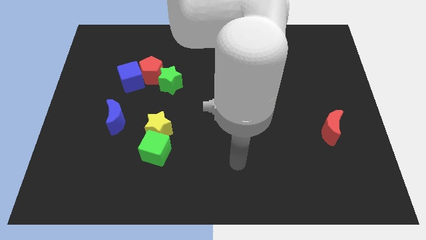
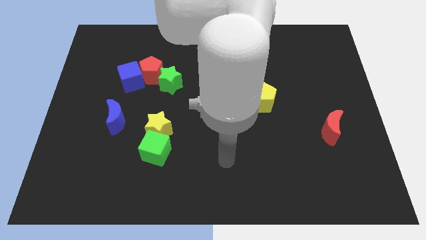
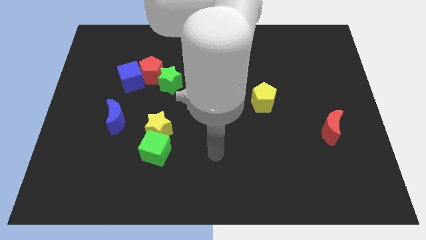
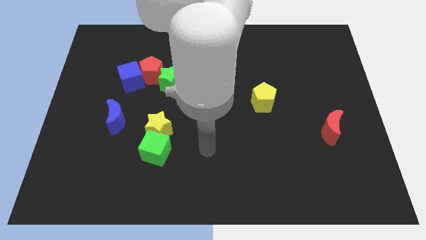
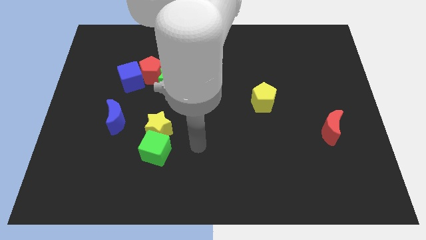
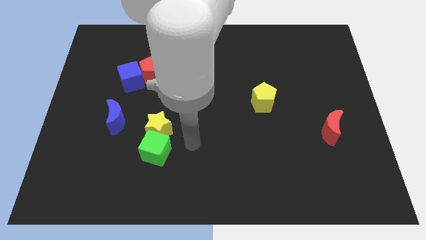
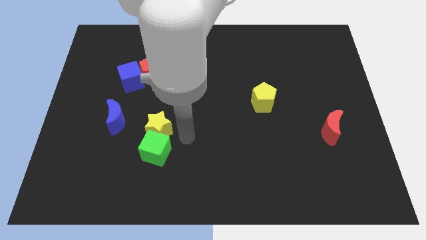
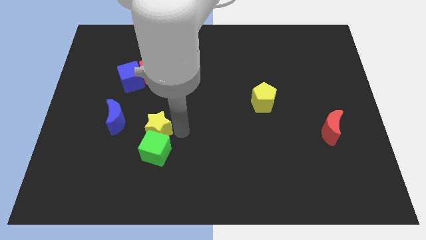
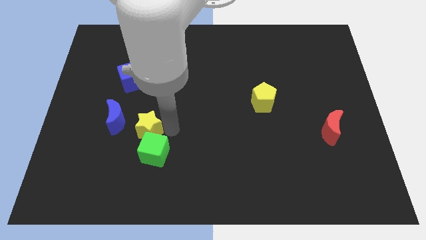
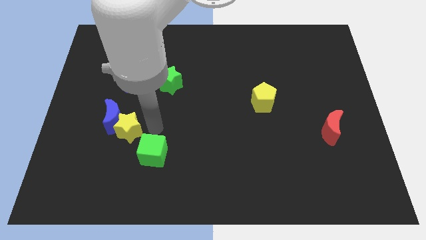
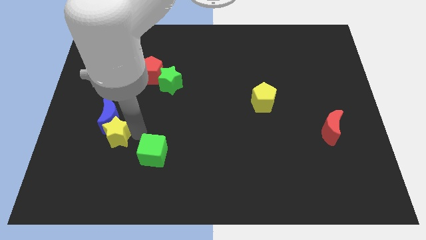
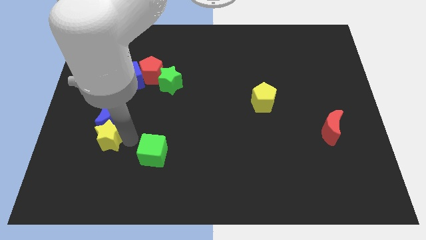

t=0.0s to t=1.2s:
separate the green cube from the yellow star

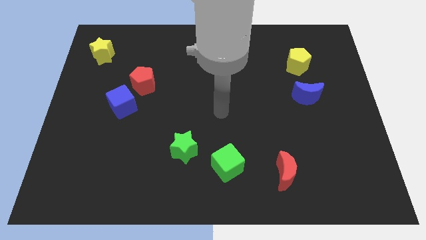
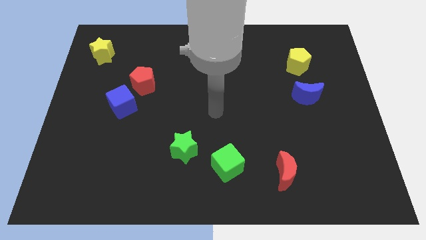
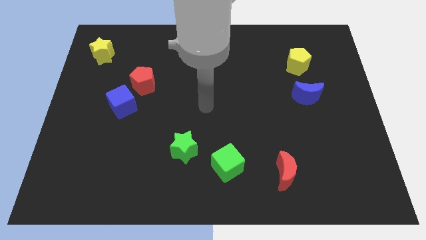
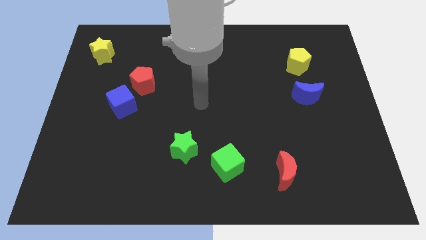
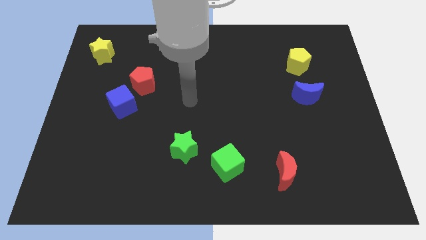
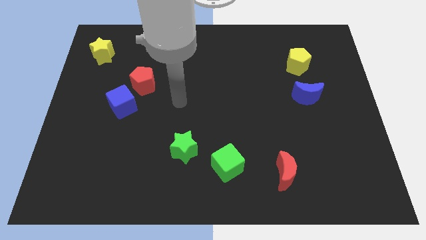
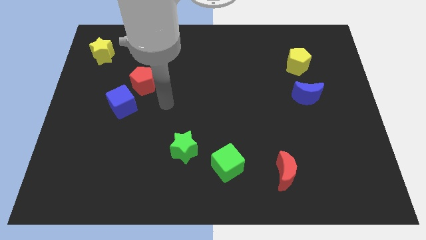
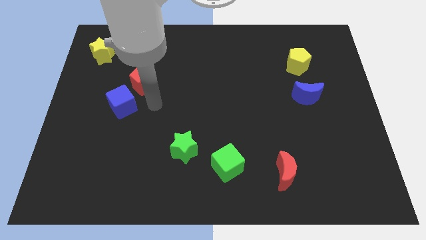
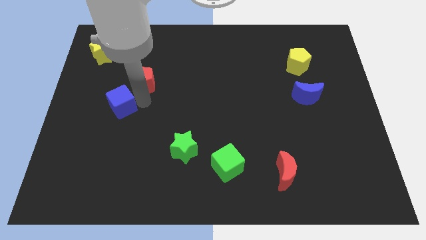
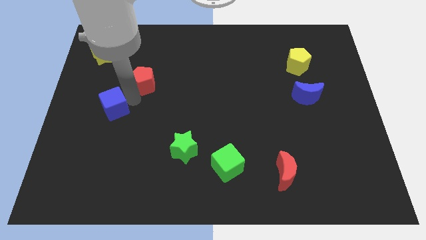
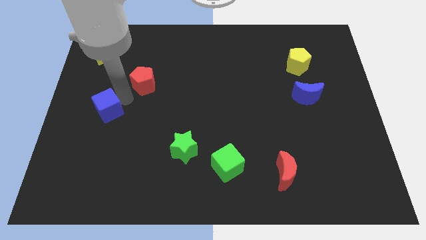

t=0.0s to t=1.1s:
move the red pentagon away from the blue cube

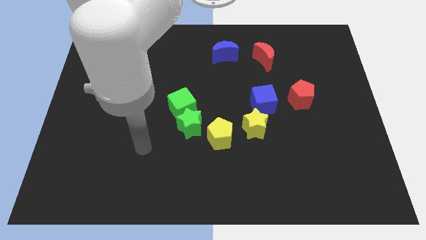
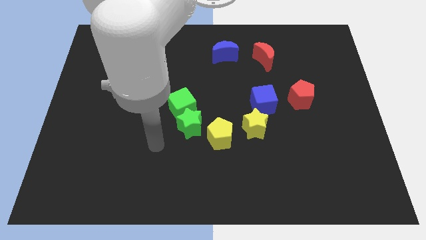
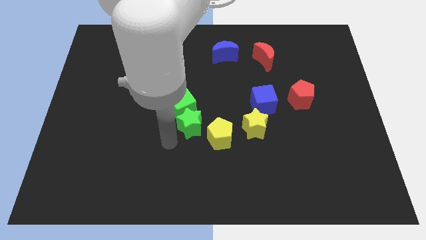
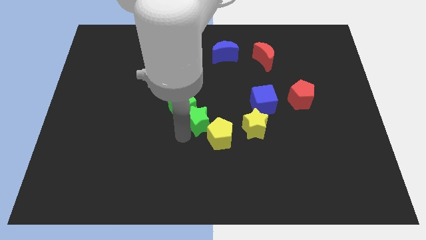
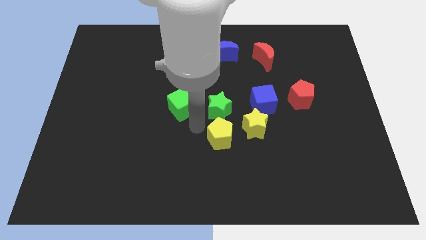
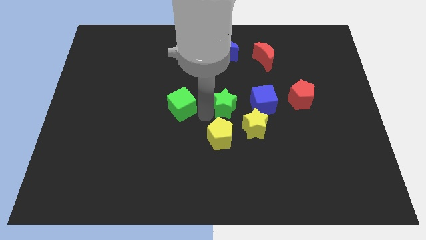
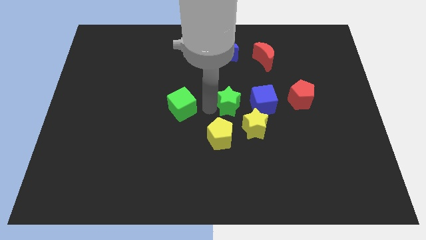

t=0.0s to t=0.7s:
separate the green cube from the green star

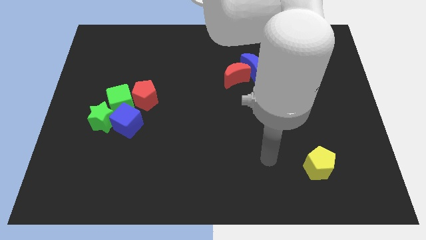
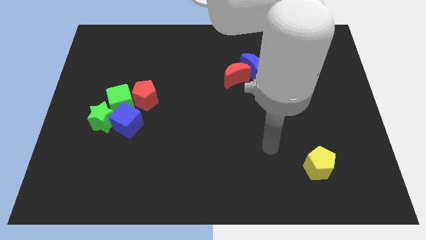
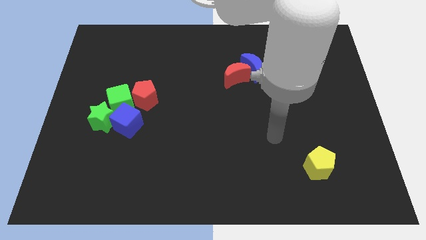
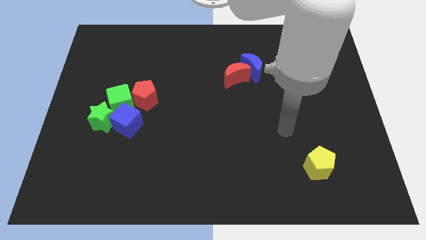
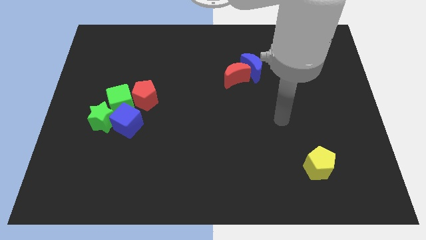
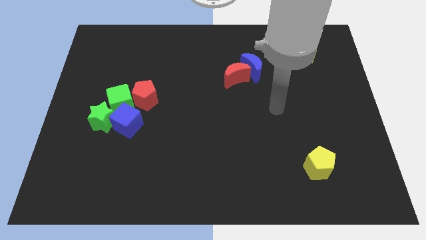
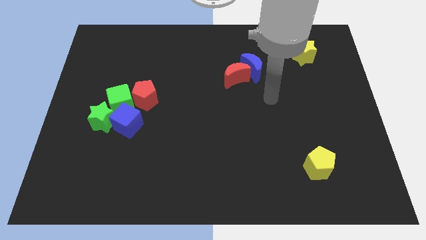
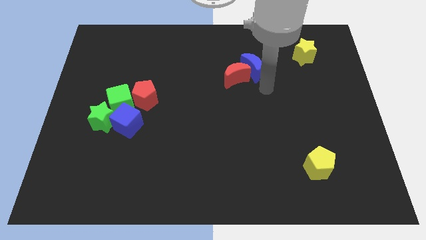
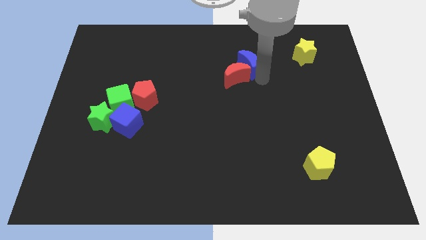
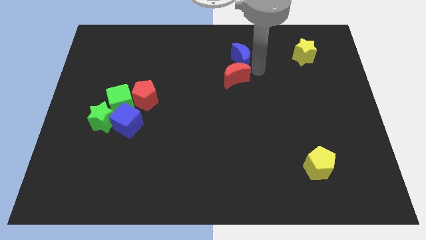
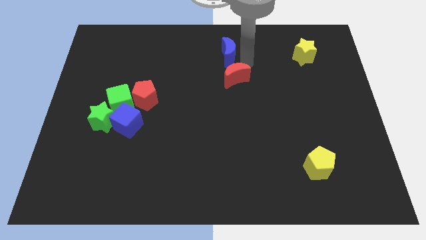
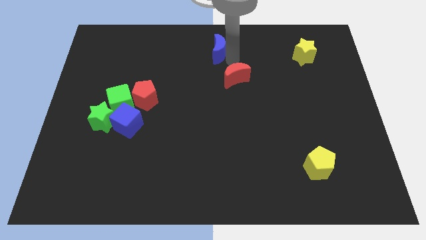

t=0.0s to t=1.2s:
move the red moon away from the blue moon

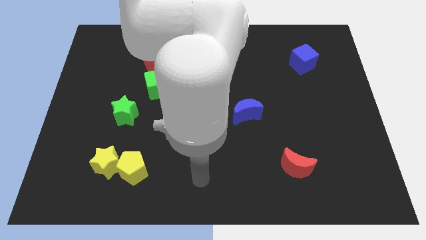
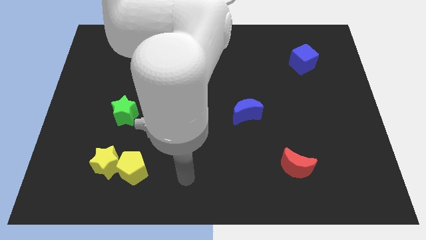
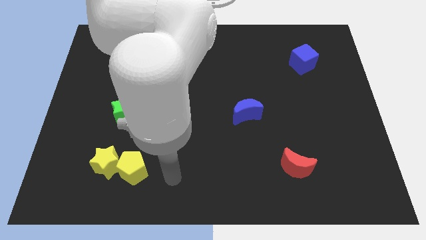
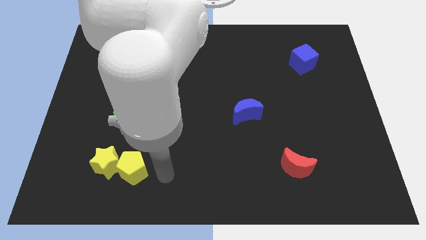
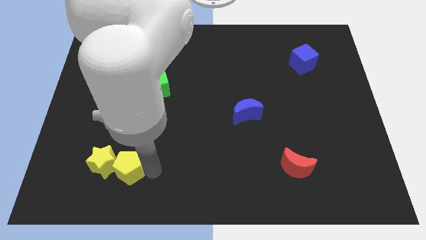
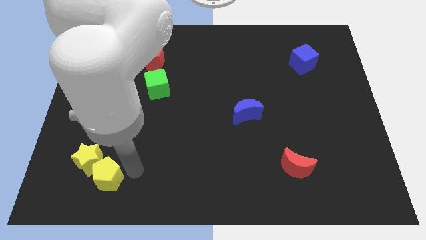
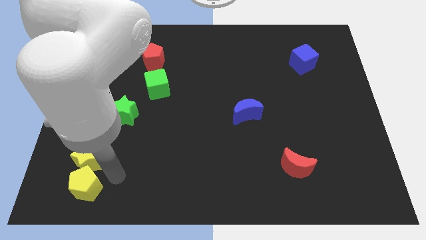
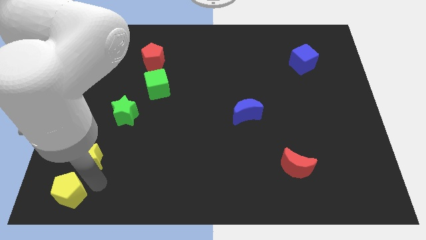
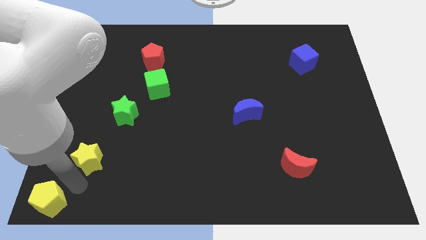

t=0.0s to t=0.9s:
move the yellow star away from the yellow pentagon

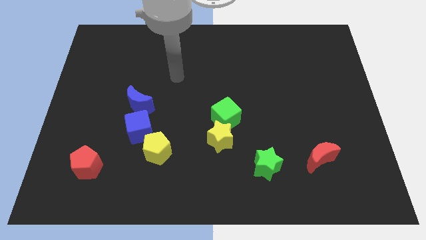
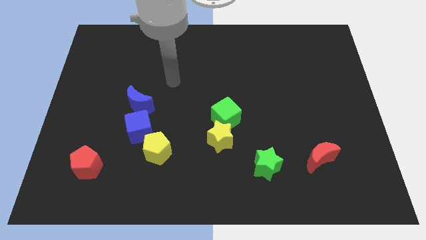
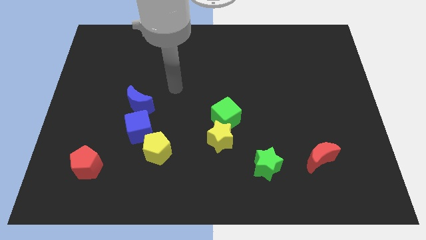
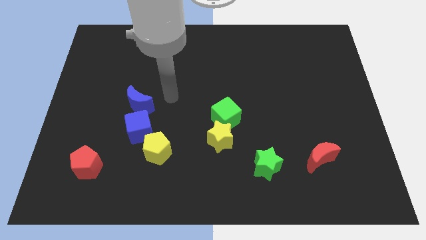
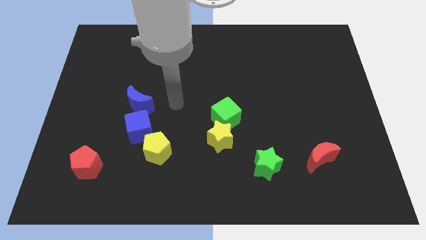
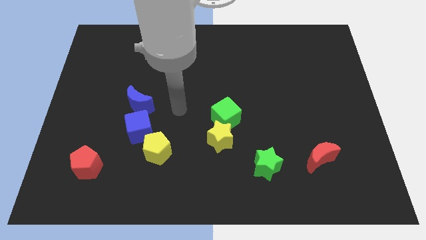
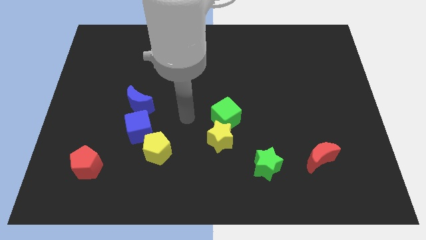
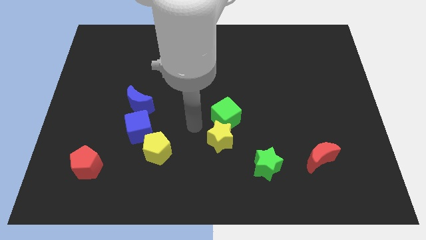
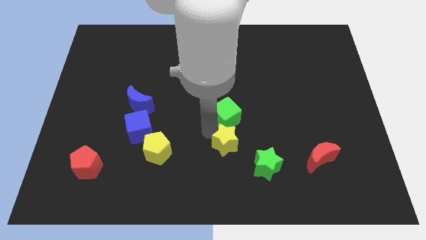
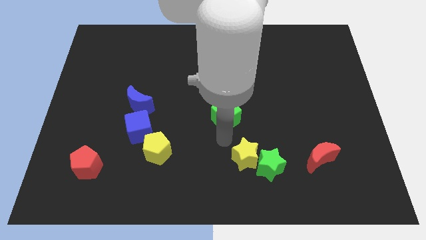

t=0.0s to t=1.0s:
move the green cube away from the yellow star

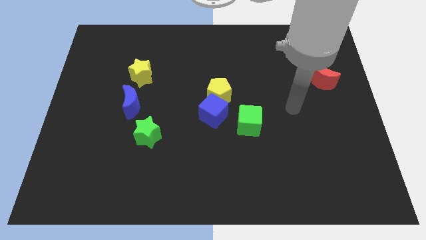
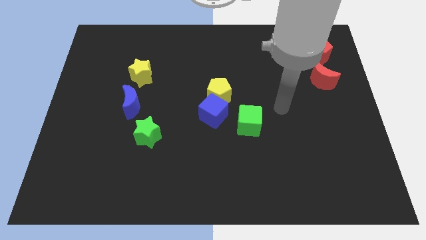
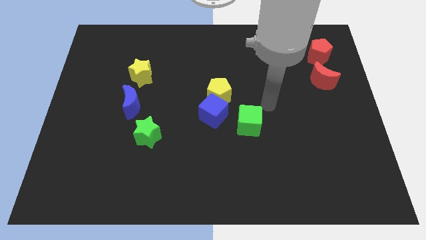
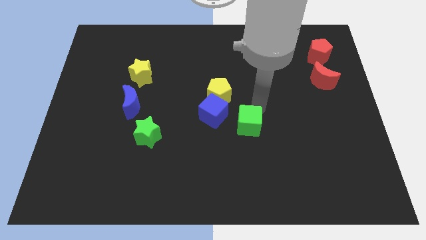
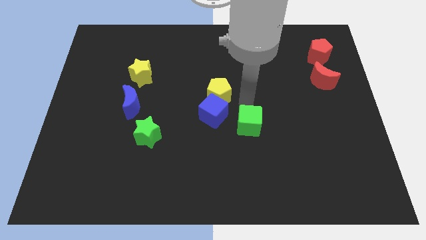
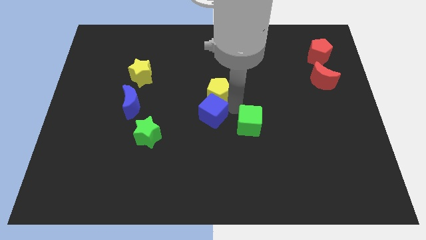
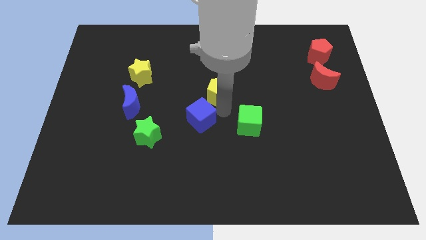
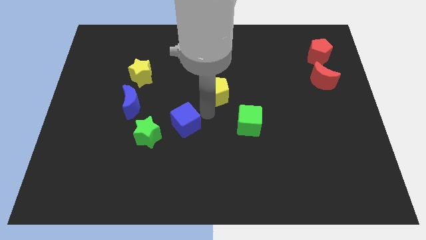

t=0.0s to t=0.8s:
pull the yellow pentagon apart from the blue cube

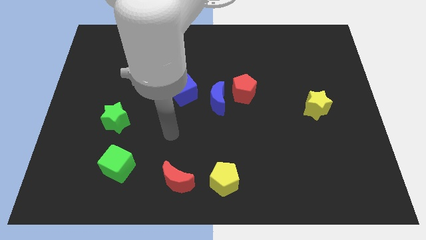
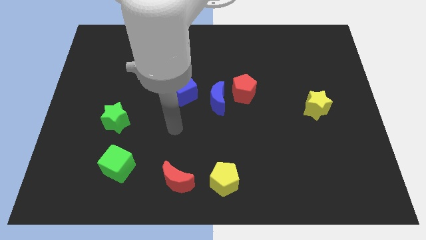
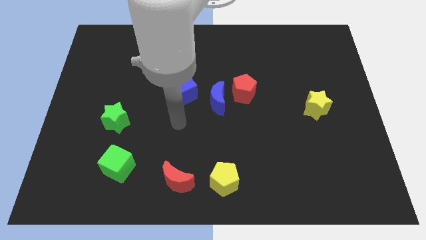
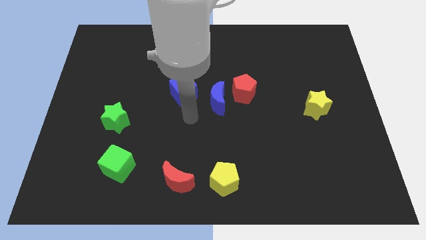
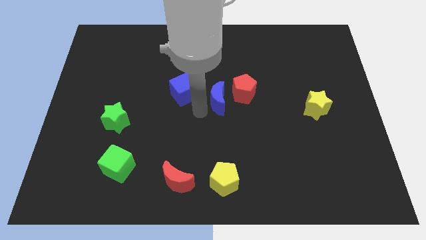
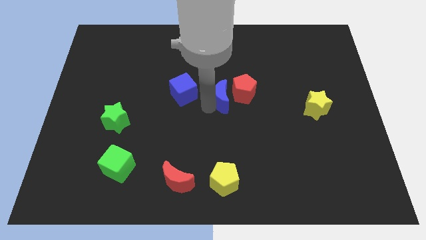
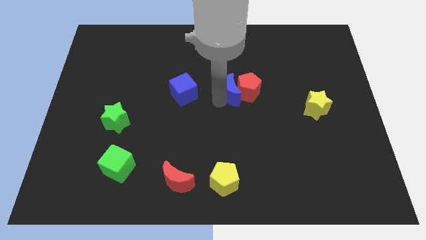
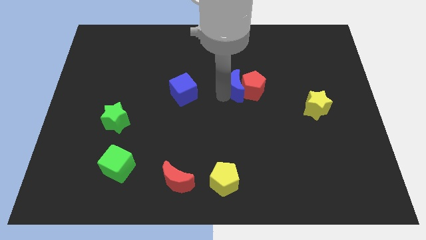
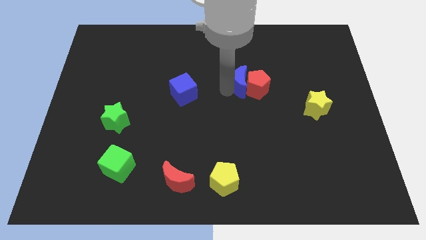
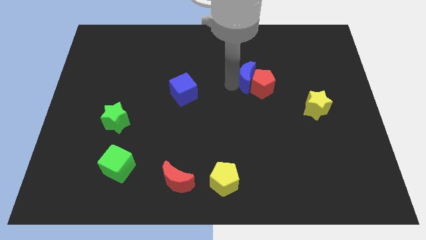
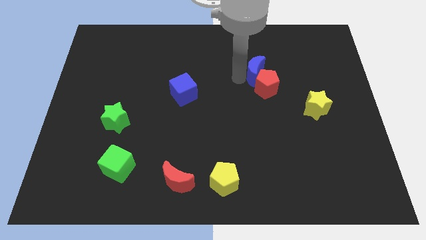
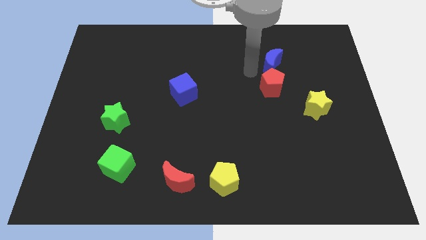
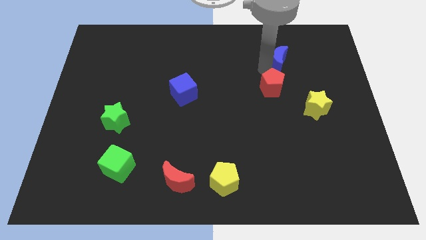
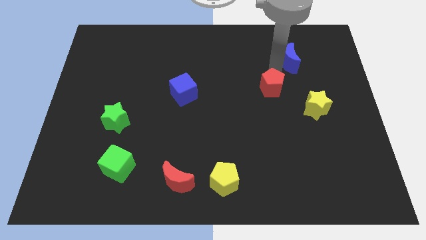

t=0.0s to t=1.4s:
separate the red pentagon from the blue moon

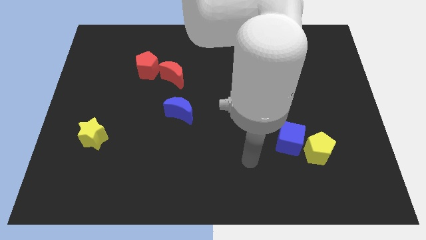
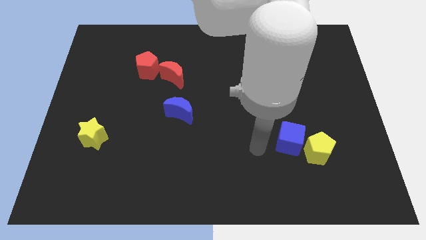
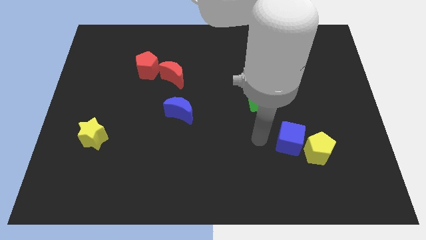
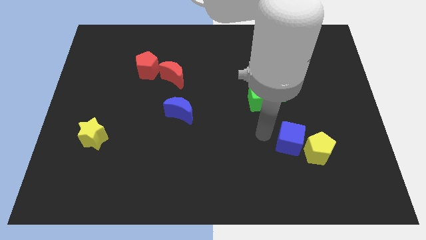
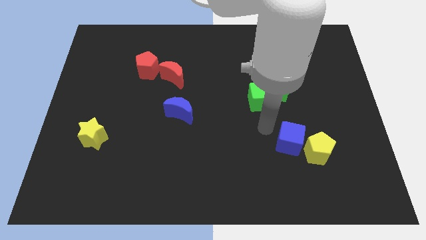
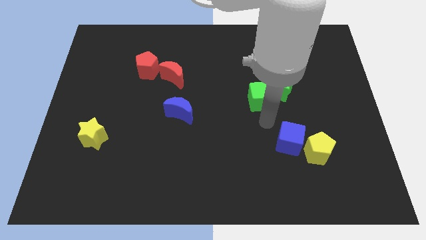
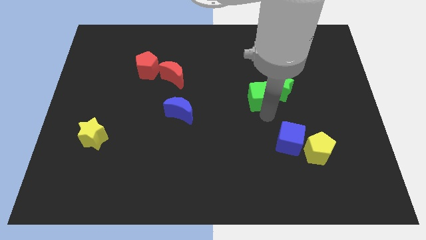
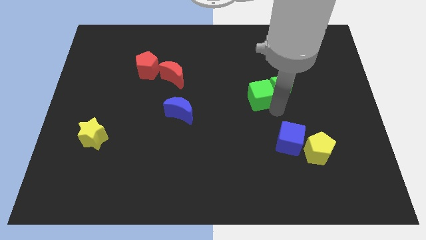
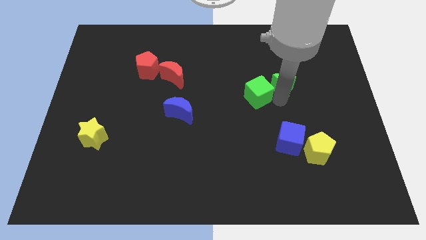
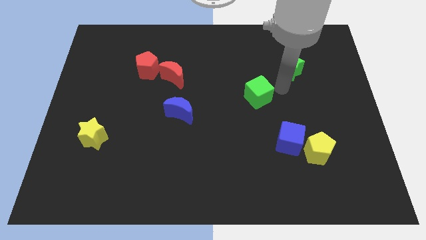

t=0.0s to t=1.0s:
pull the green cube apart from the green star

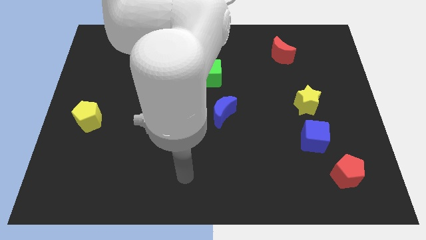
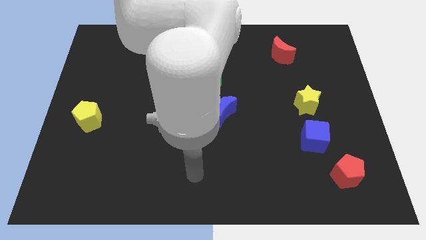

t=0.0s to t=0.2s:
pull the yellow star apart from the blue cube
